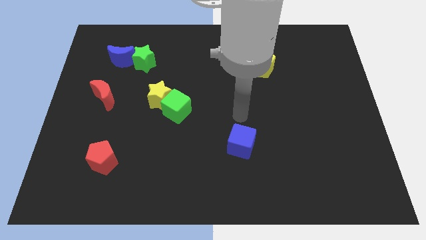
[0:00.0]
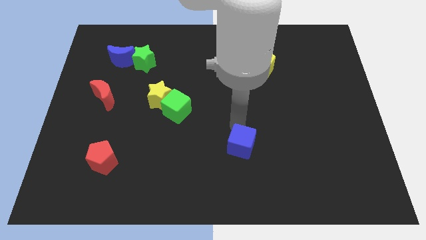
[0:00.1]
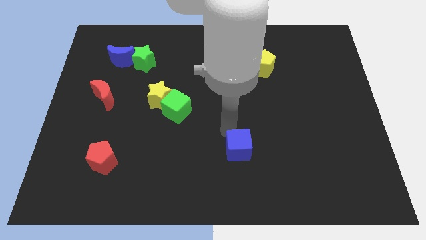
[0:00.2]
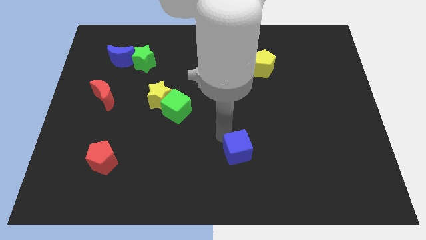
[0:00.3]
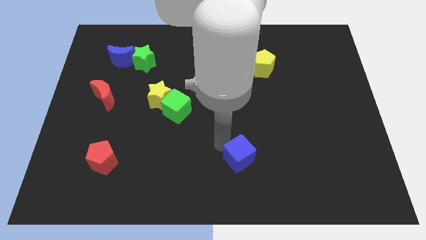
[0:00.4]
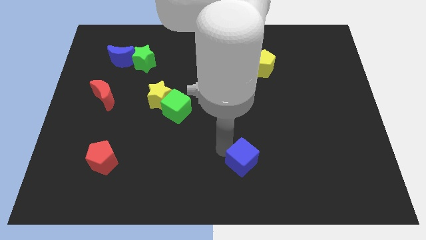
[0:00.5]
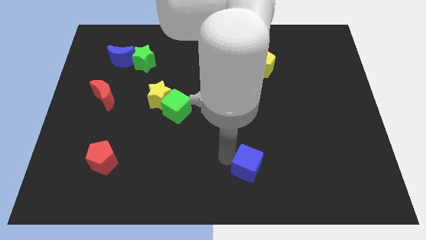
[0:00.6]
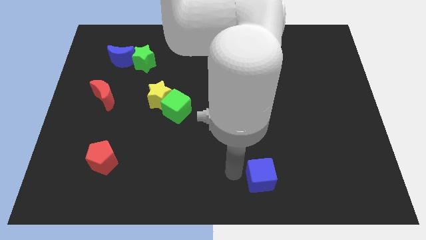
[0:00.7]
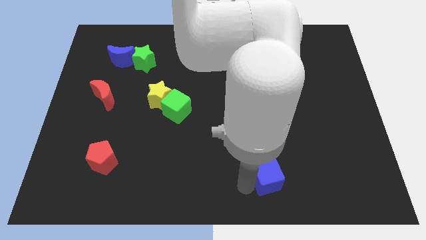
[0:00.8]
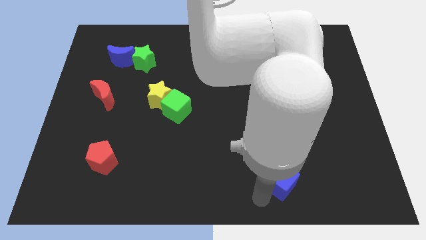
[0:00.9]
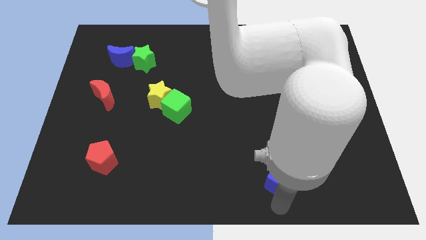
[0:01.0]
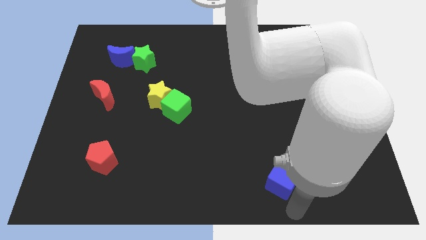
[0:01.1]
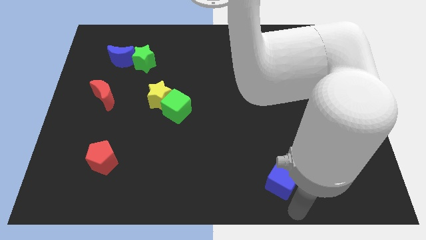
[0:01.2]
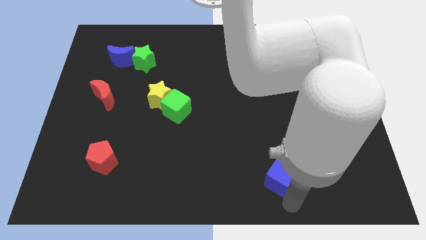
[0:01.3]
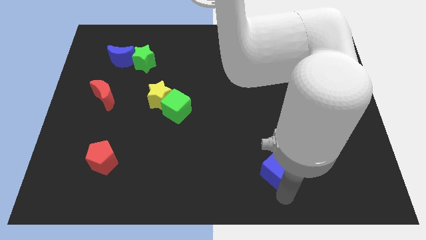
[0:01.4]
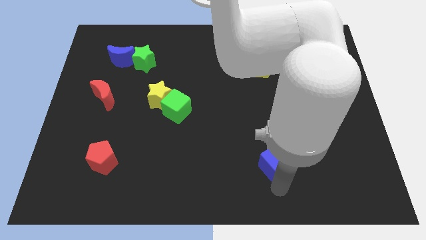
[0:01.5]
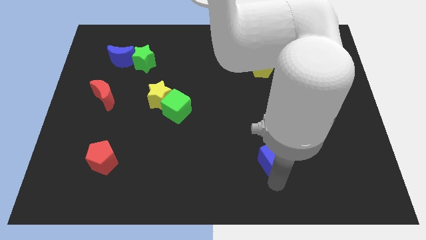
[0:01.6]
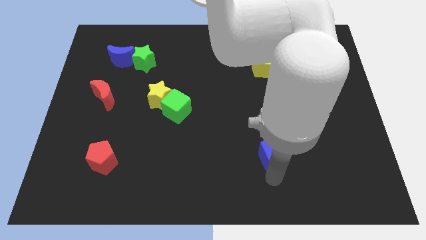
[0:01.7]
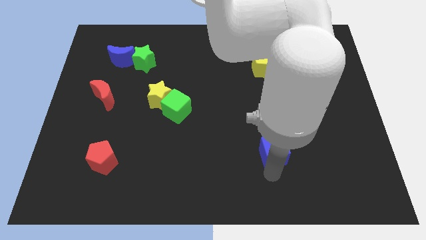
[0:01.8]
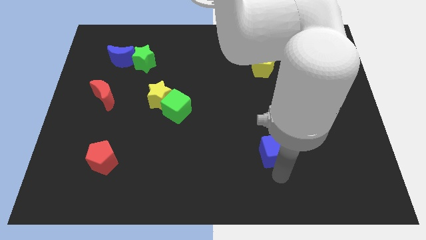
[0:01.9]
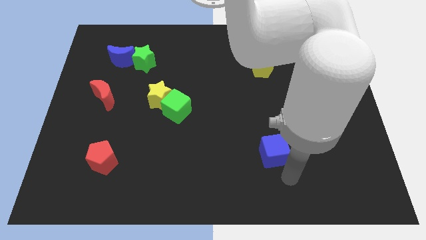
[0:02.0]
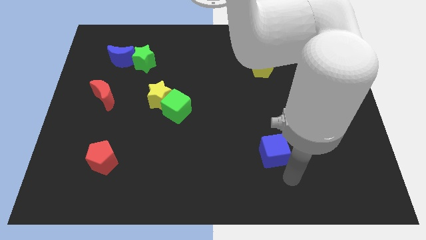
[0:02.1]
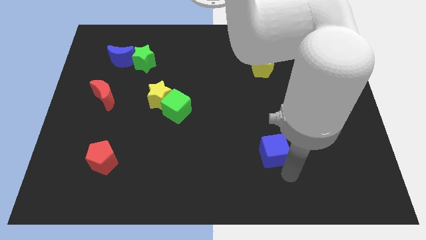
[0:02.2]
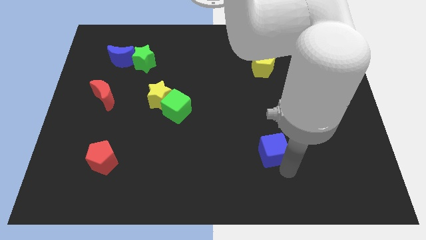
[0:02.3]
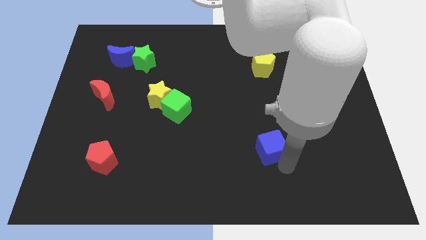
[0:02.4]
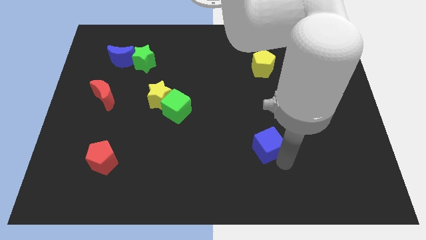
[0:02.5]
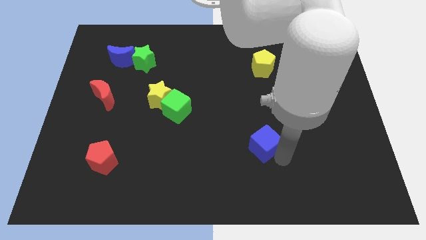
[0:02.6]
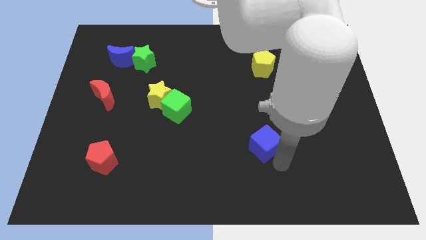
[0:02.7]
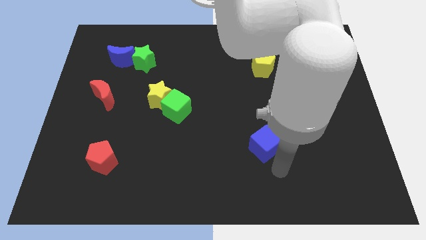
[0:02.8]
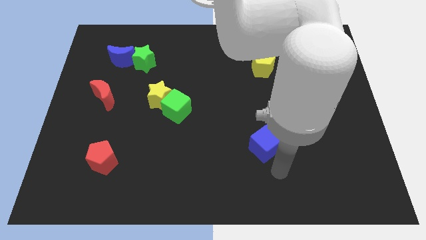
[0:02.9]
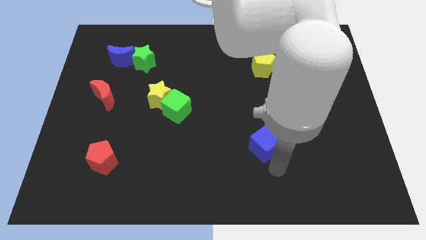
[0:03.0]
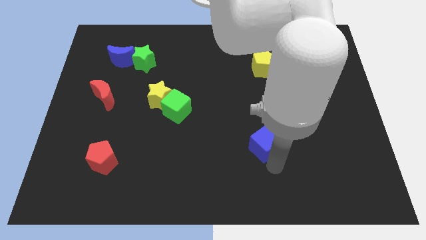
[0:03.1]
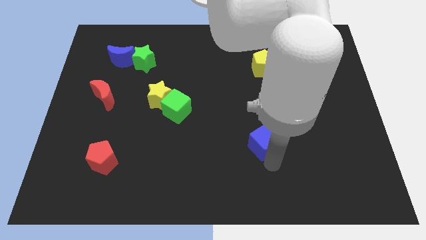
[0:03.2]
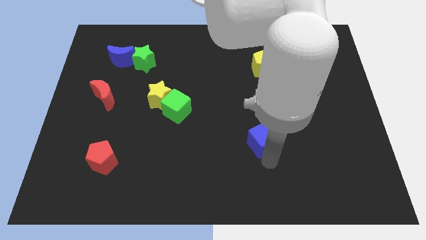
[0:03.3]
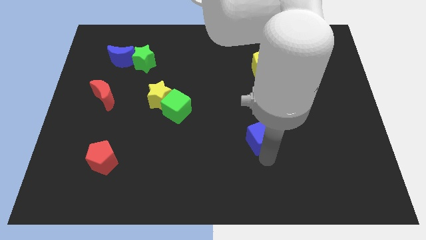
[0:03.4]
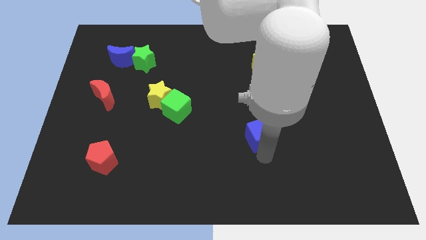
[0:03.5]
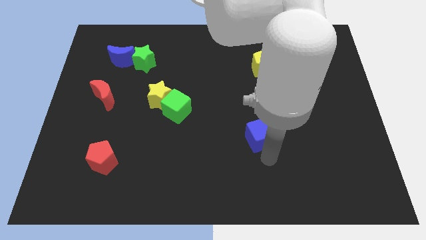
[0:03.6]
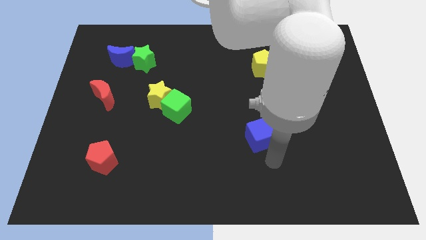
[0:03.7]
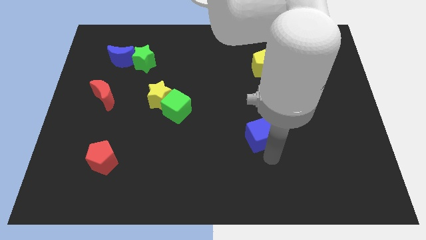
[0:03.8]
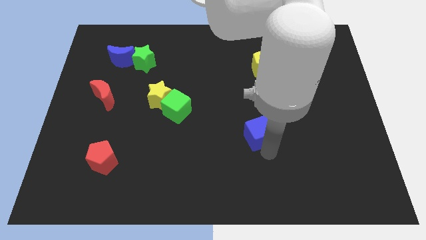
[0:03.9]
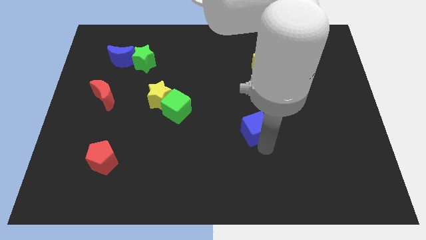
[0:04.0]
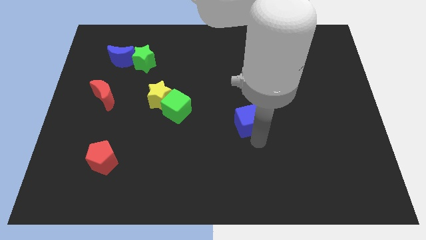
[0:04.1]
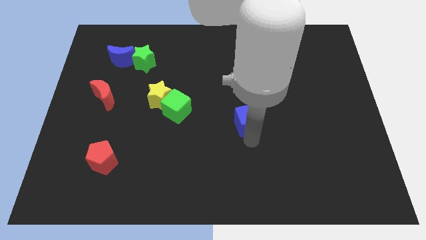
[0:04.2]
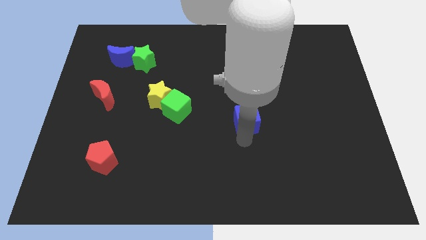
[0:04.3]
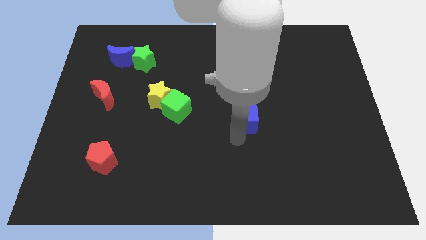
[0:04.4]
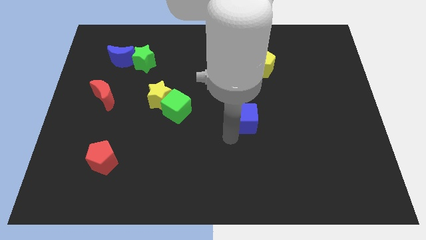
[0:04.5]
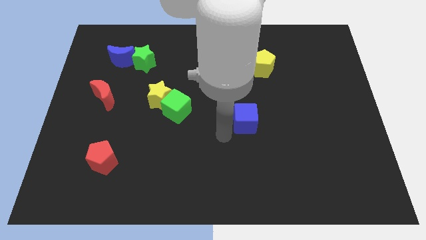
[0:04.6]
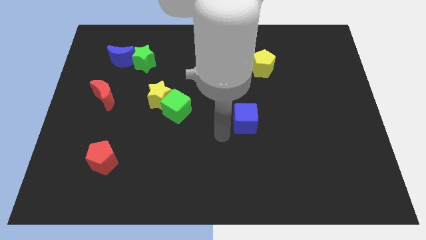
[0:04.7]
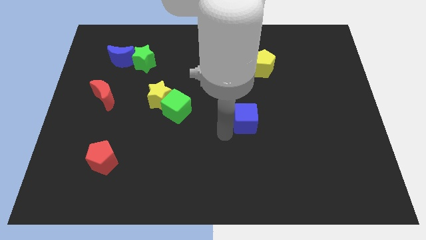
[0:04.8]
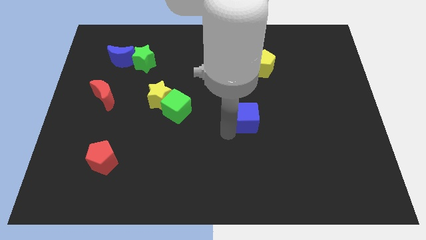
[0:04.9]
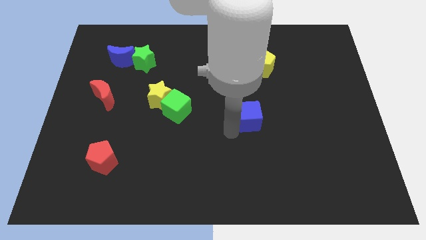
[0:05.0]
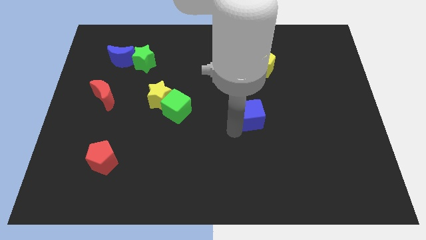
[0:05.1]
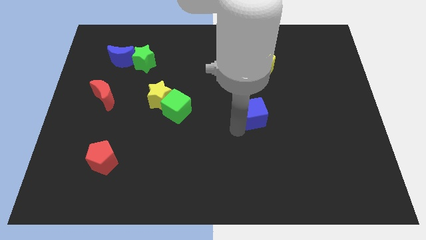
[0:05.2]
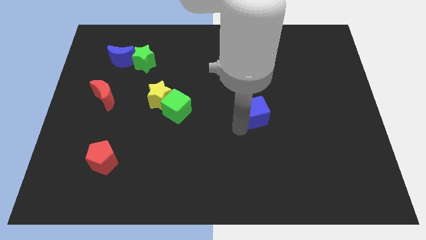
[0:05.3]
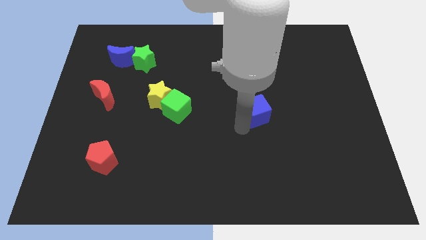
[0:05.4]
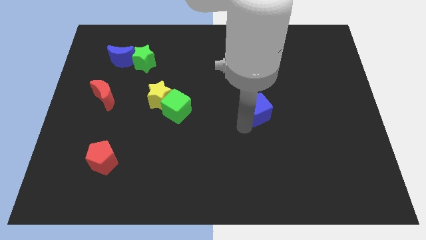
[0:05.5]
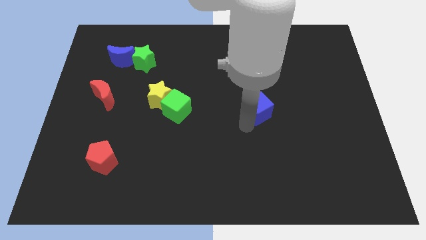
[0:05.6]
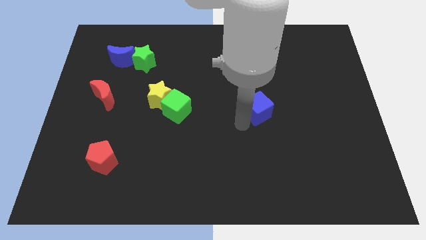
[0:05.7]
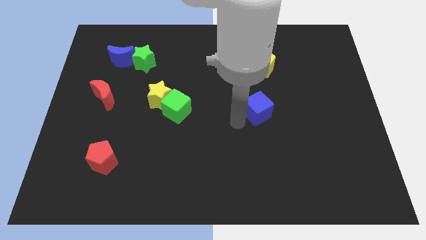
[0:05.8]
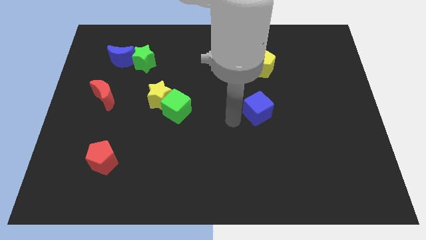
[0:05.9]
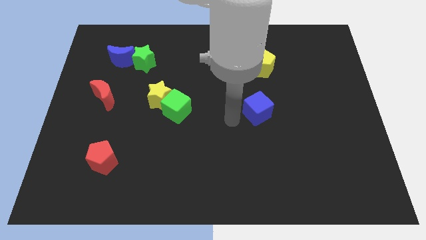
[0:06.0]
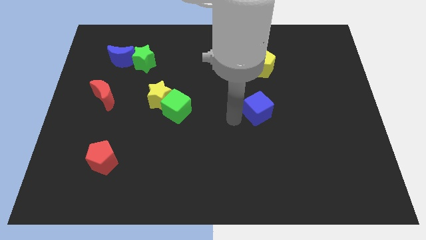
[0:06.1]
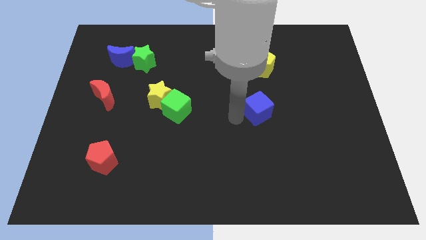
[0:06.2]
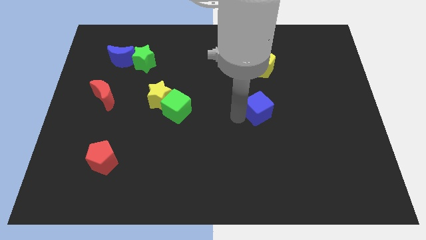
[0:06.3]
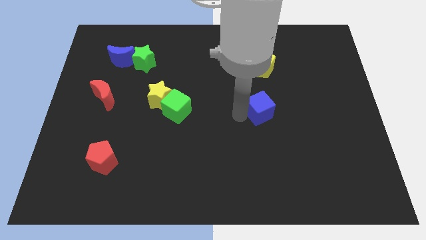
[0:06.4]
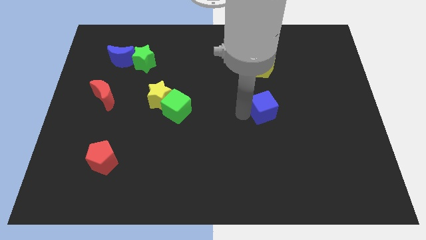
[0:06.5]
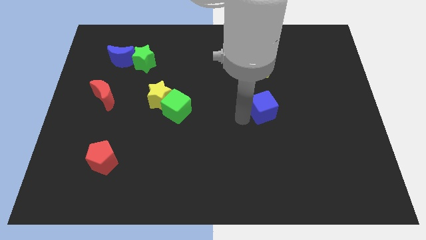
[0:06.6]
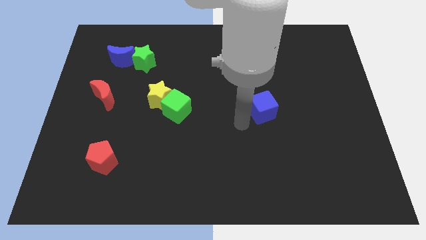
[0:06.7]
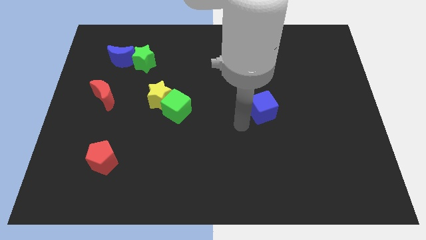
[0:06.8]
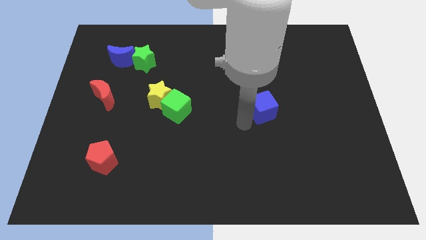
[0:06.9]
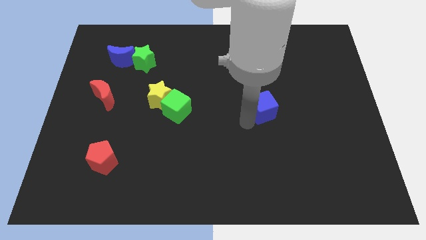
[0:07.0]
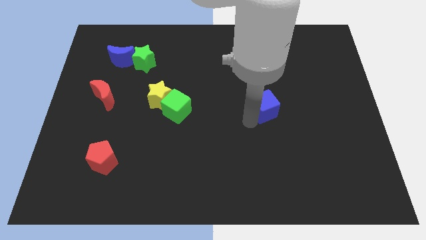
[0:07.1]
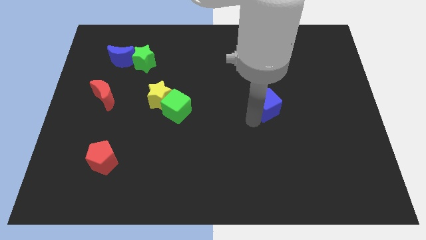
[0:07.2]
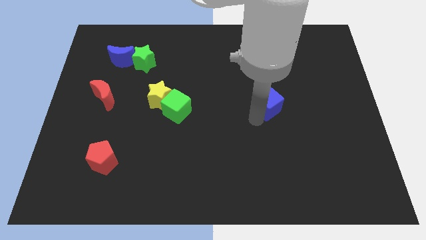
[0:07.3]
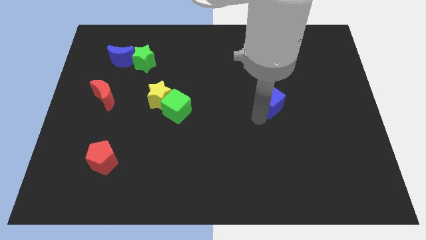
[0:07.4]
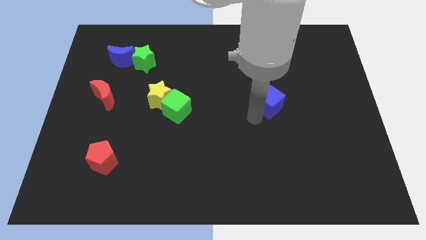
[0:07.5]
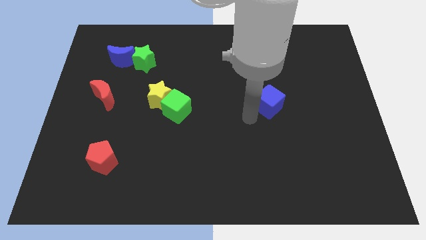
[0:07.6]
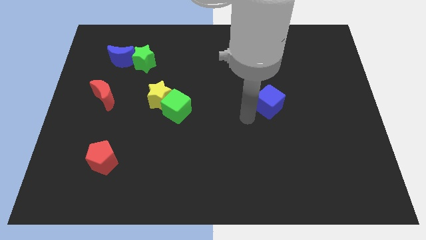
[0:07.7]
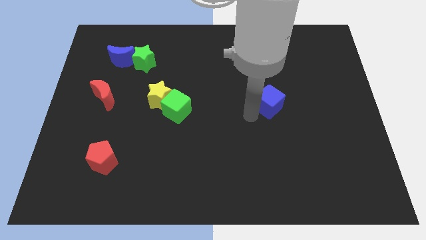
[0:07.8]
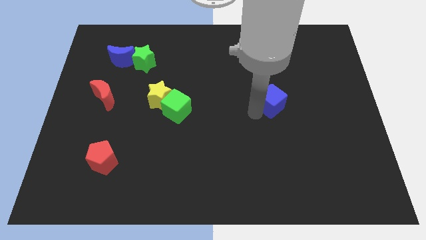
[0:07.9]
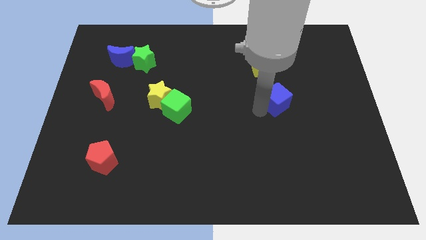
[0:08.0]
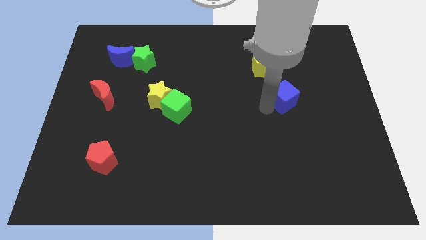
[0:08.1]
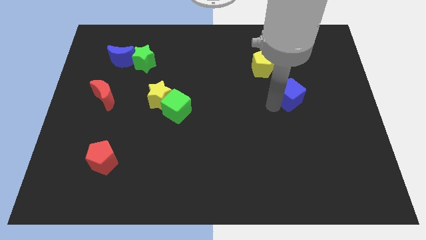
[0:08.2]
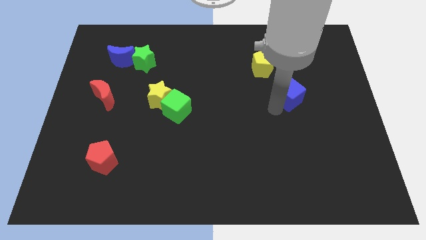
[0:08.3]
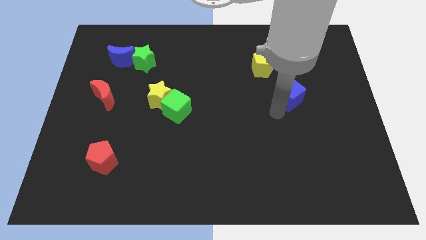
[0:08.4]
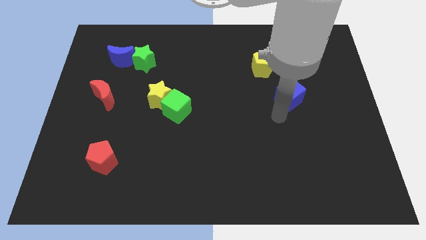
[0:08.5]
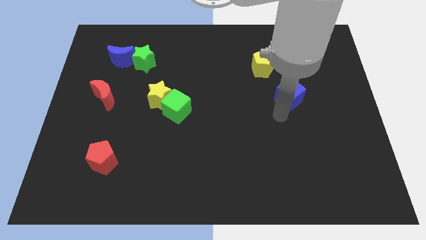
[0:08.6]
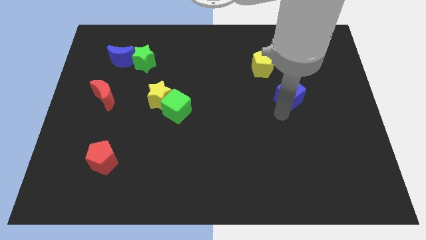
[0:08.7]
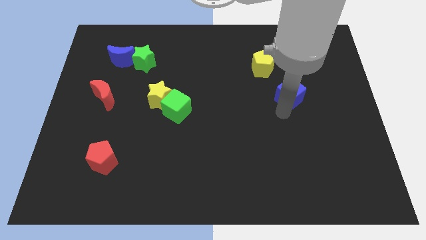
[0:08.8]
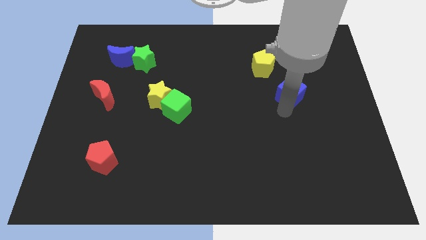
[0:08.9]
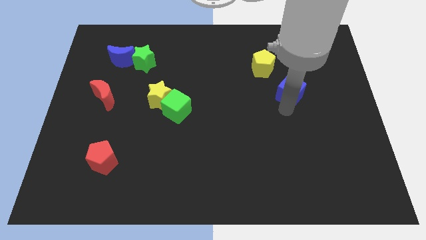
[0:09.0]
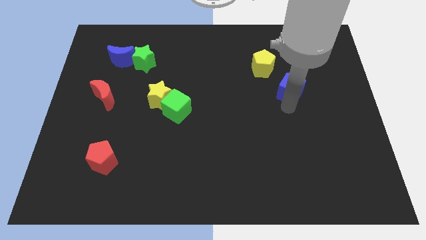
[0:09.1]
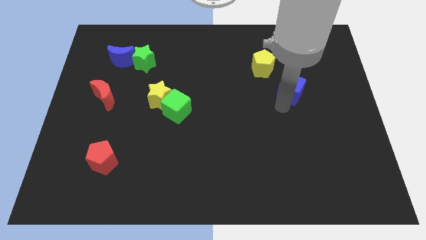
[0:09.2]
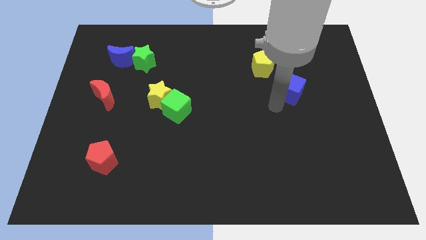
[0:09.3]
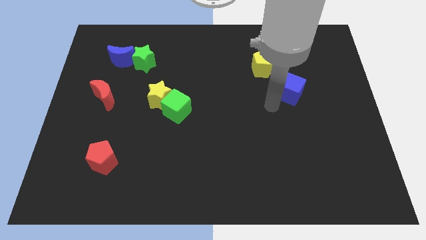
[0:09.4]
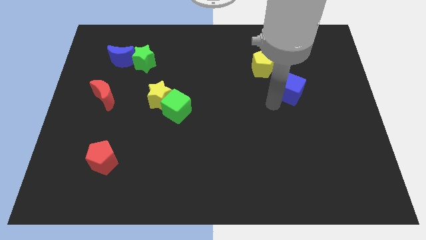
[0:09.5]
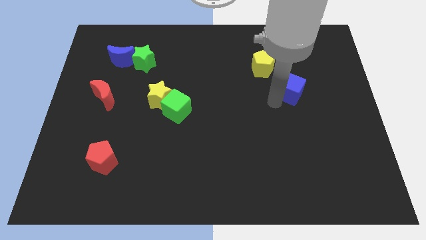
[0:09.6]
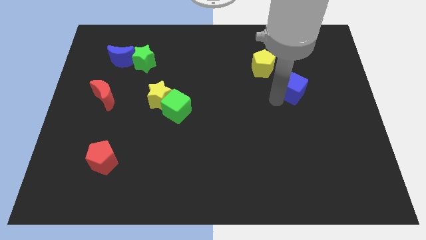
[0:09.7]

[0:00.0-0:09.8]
push the blue cube up and then right
